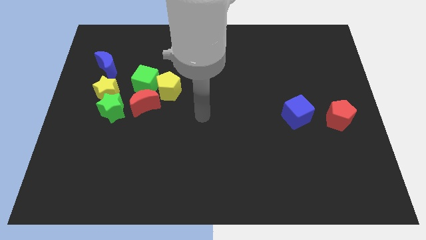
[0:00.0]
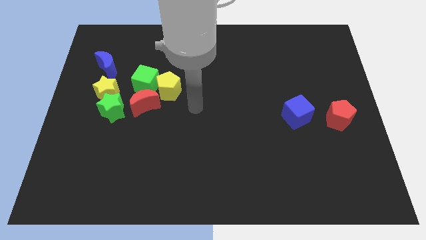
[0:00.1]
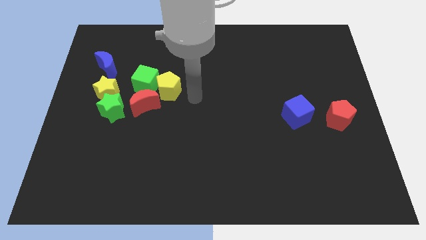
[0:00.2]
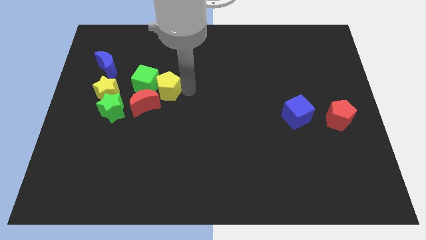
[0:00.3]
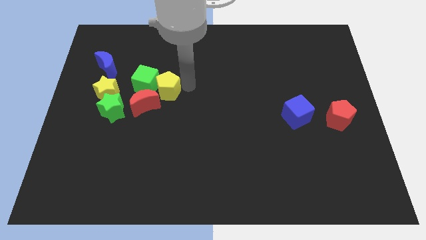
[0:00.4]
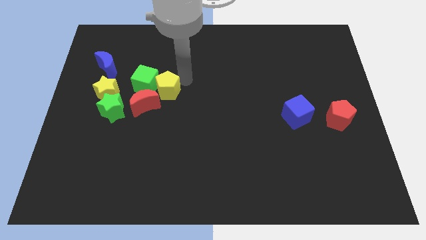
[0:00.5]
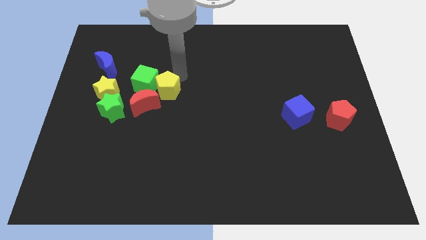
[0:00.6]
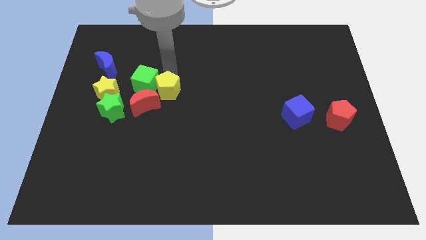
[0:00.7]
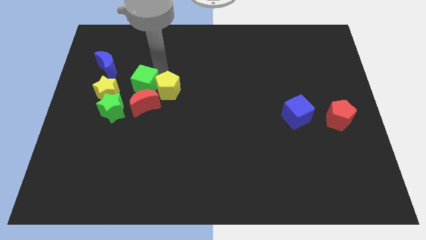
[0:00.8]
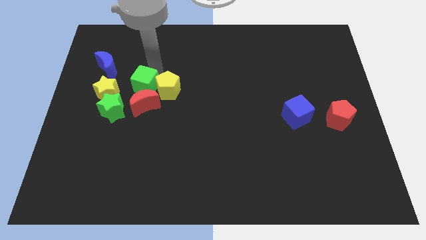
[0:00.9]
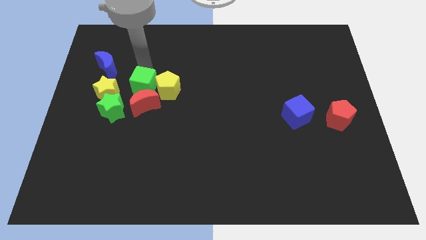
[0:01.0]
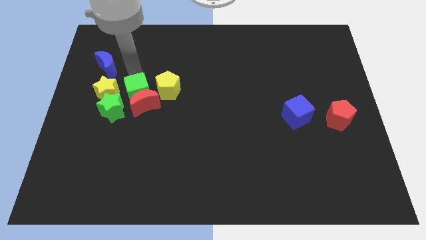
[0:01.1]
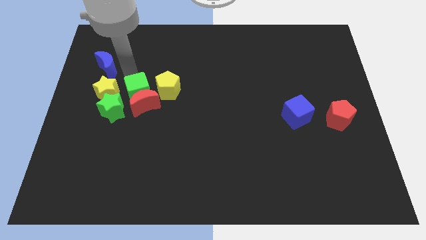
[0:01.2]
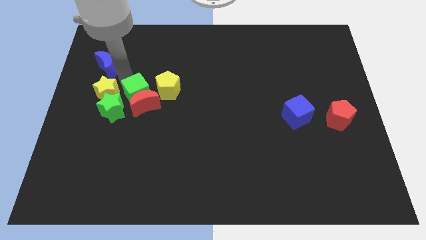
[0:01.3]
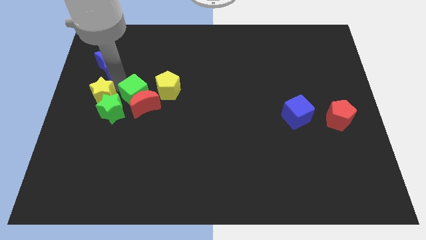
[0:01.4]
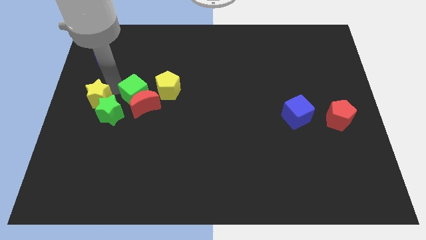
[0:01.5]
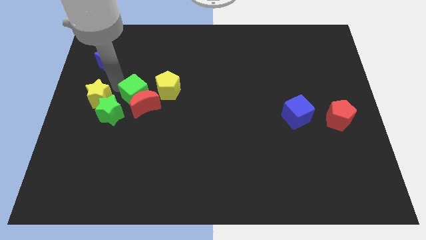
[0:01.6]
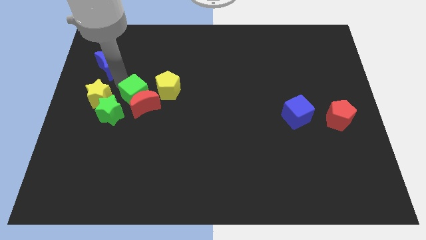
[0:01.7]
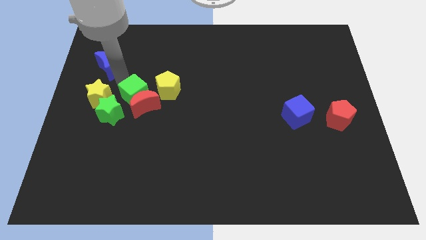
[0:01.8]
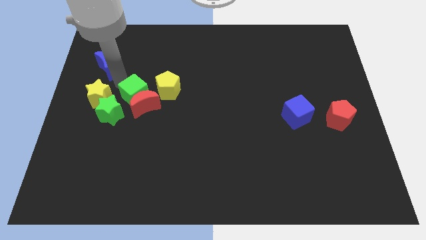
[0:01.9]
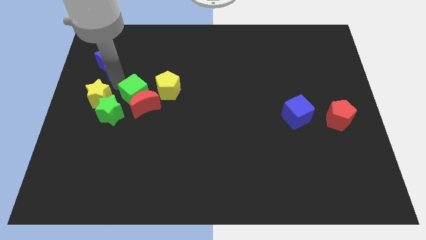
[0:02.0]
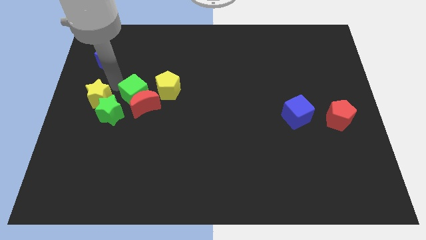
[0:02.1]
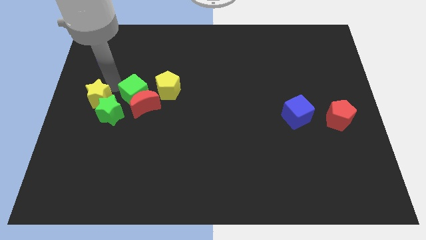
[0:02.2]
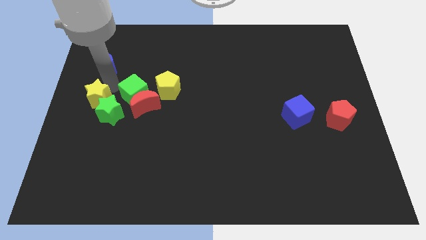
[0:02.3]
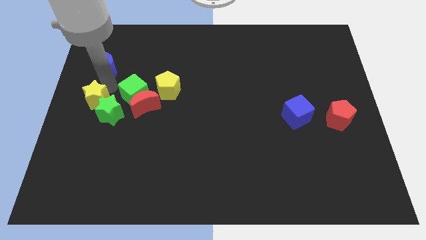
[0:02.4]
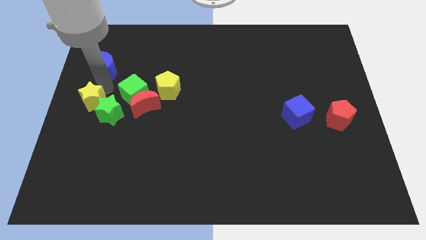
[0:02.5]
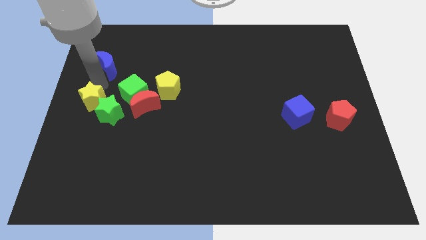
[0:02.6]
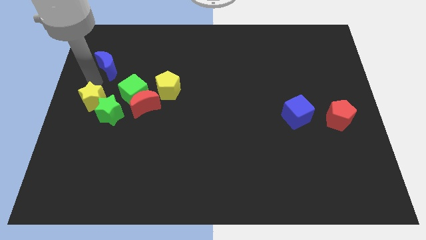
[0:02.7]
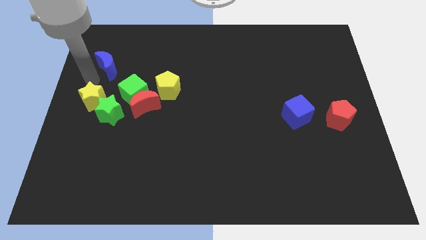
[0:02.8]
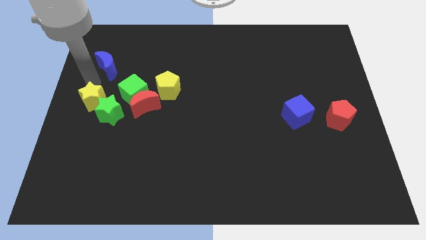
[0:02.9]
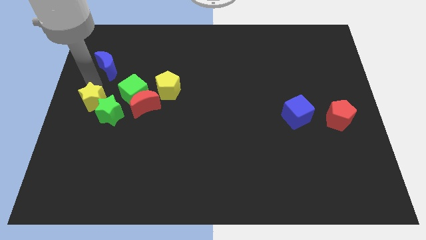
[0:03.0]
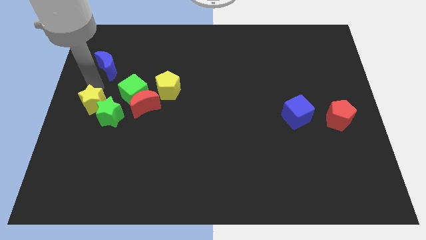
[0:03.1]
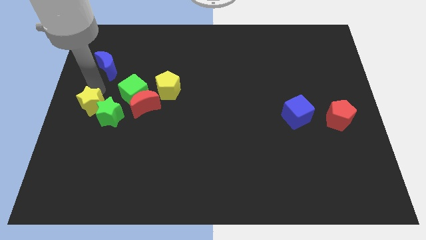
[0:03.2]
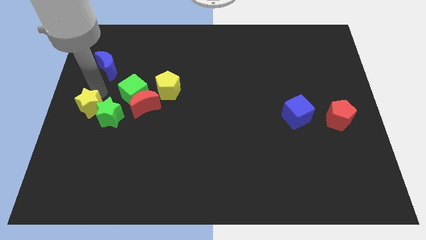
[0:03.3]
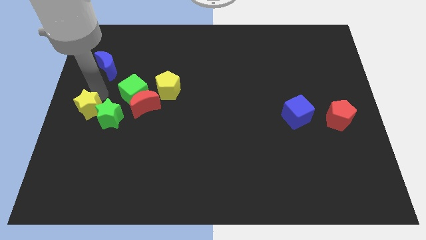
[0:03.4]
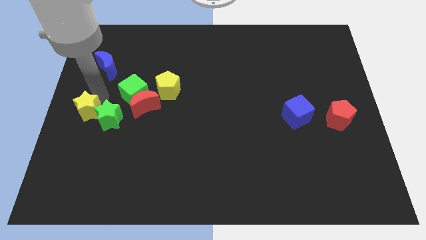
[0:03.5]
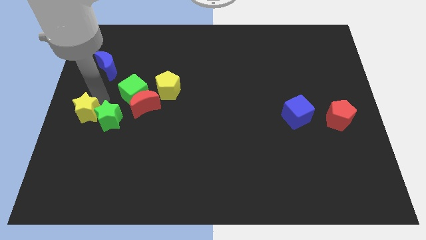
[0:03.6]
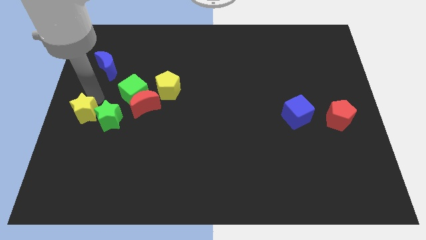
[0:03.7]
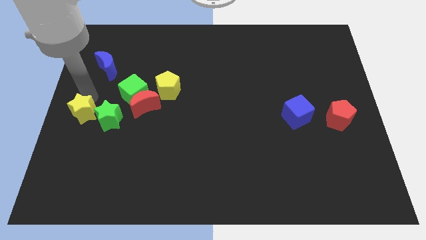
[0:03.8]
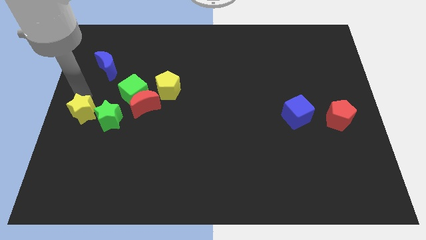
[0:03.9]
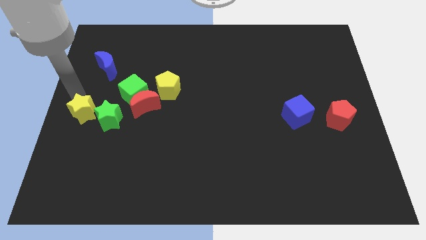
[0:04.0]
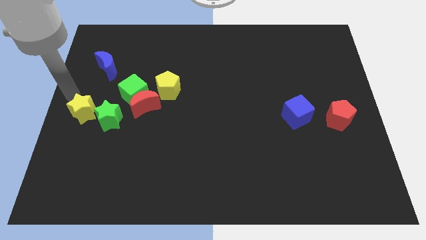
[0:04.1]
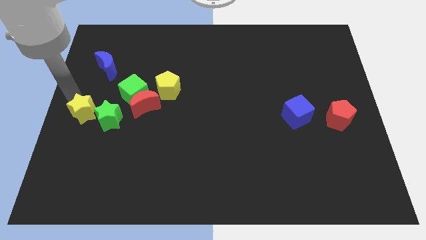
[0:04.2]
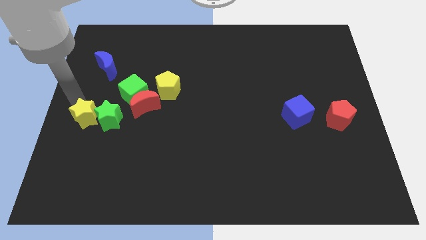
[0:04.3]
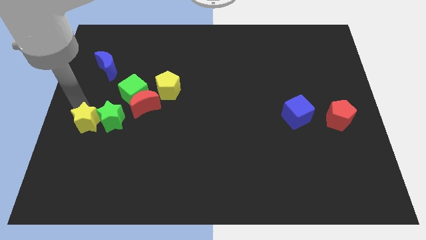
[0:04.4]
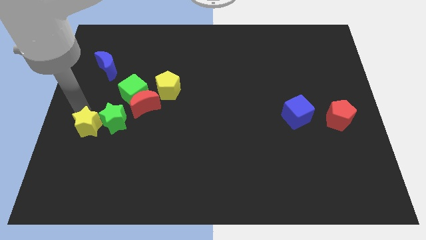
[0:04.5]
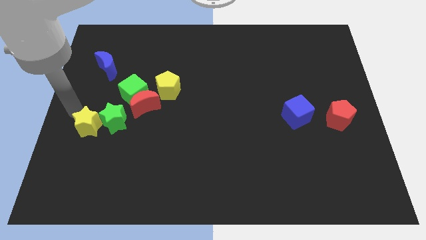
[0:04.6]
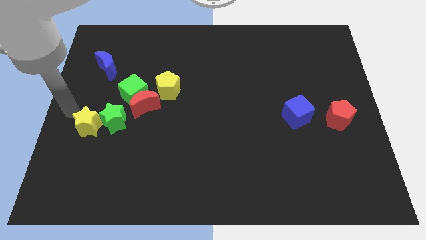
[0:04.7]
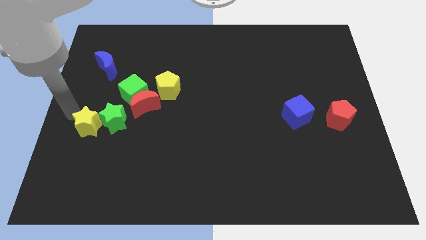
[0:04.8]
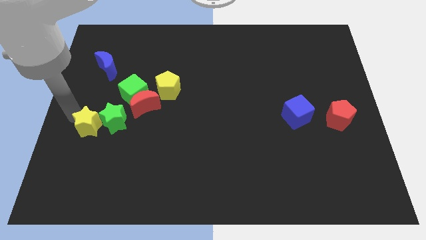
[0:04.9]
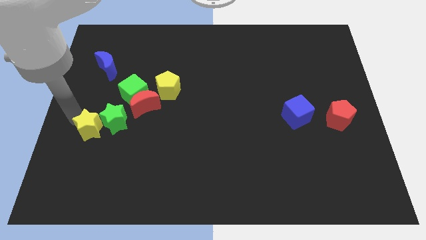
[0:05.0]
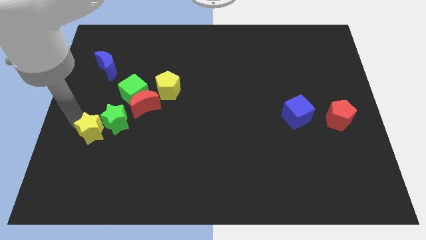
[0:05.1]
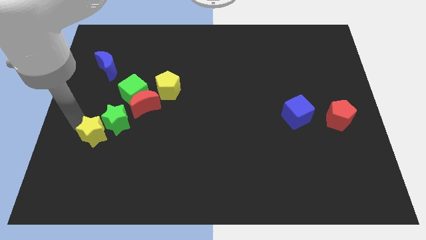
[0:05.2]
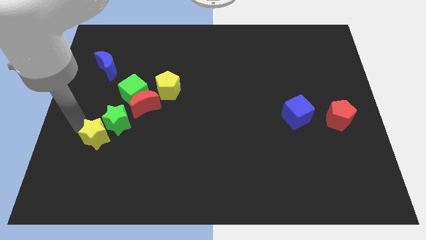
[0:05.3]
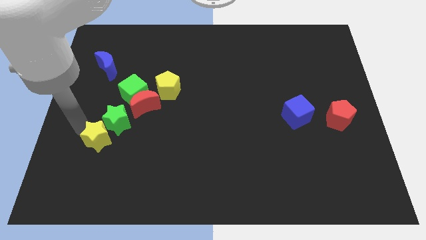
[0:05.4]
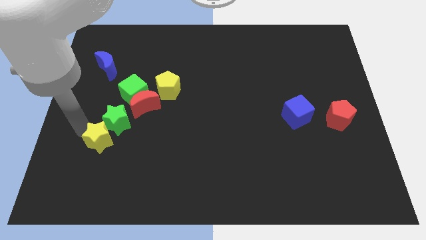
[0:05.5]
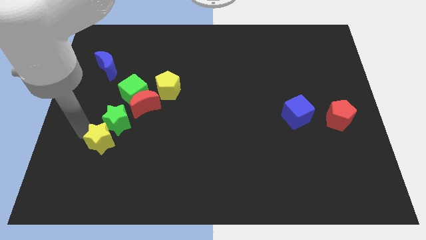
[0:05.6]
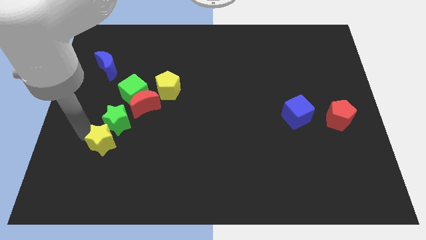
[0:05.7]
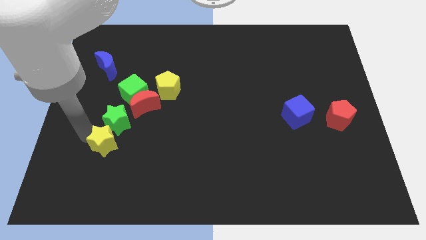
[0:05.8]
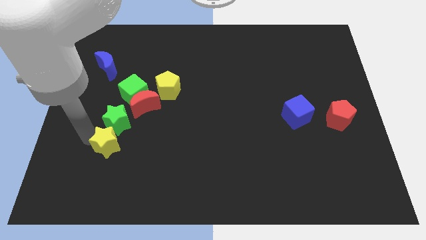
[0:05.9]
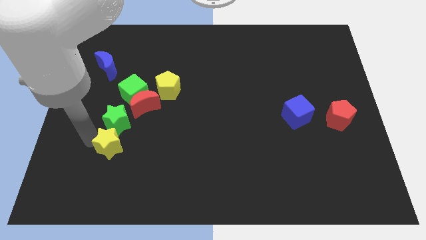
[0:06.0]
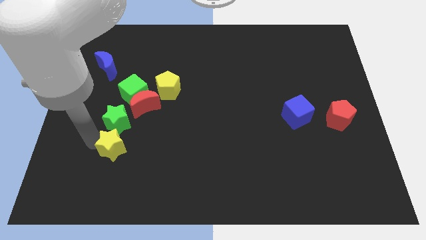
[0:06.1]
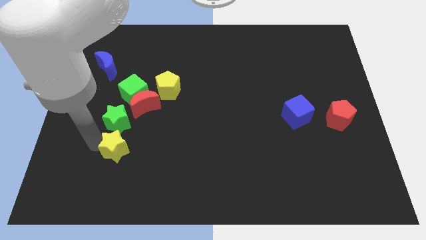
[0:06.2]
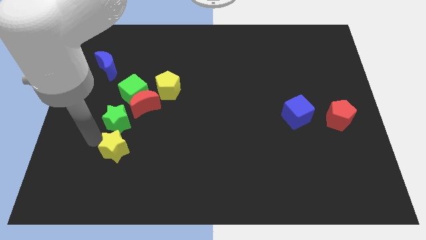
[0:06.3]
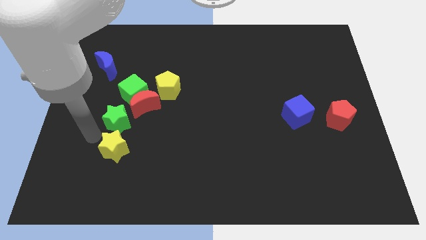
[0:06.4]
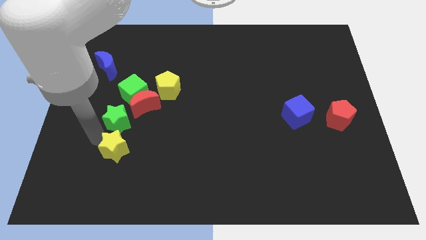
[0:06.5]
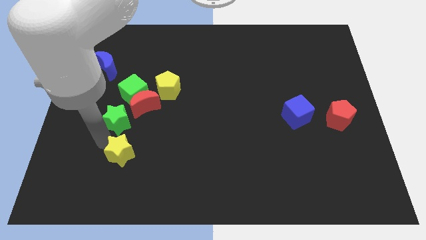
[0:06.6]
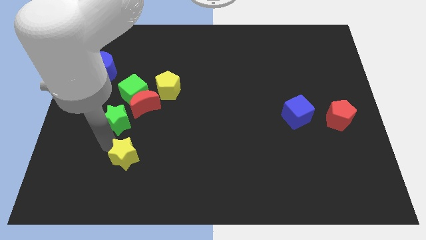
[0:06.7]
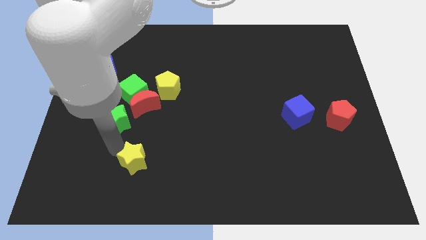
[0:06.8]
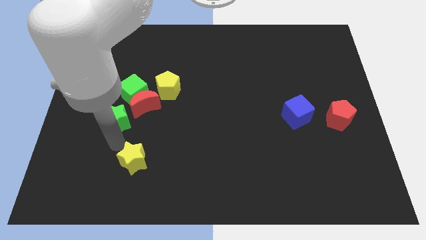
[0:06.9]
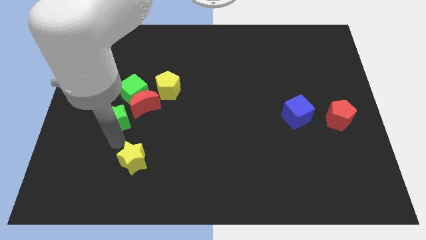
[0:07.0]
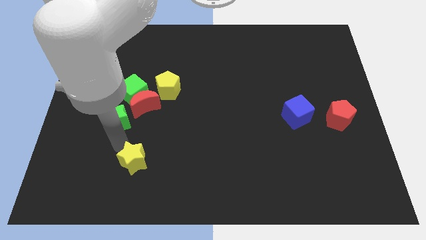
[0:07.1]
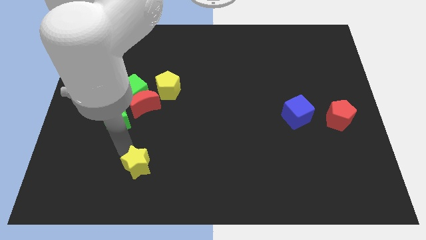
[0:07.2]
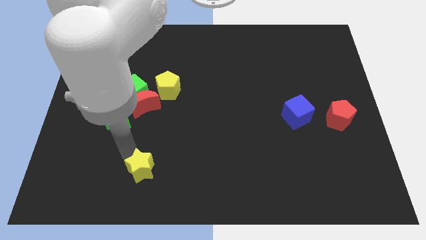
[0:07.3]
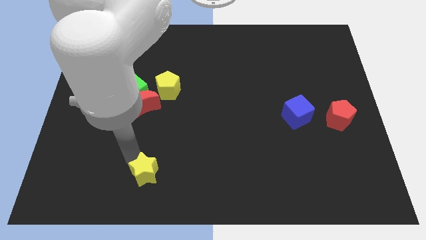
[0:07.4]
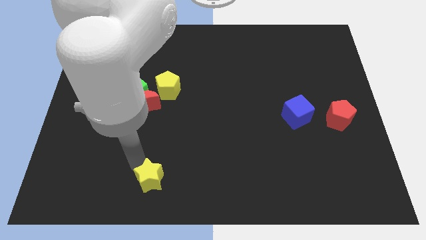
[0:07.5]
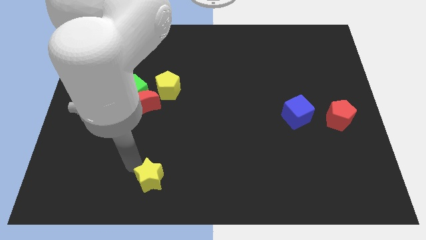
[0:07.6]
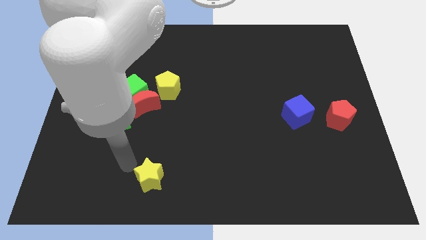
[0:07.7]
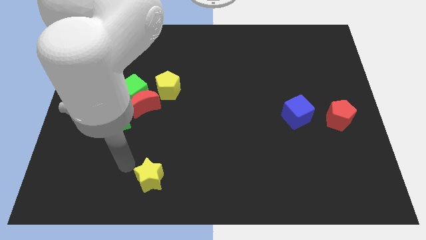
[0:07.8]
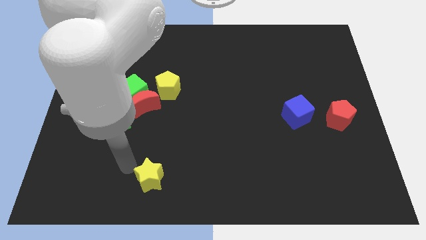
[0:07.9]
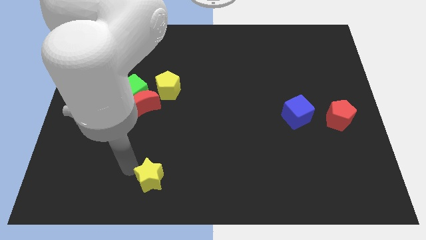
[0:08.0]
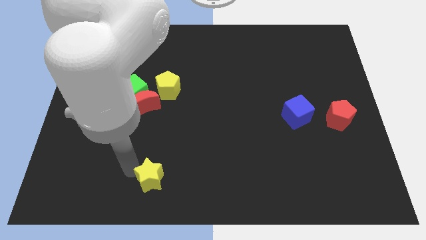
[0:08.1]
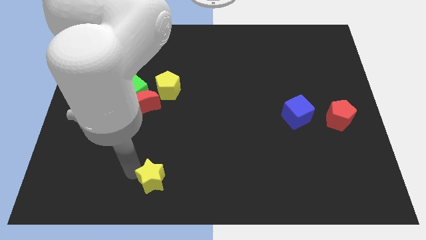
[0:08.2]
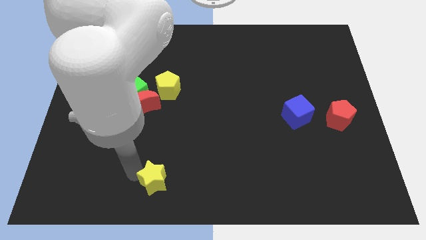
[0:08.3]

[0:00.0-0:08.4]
put the yellow star to the bottom
